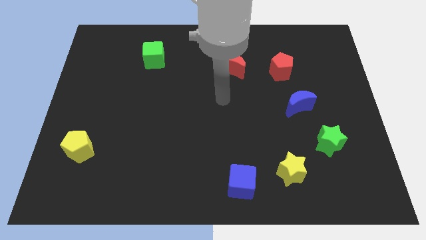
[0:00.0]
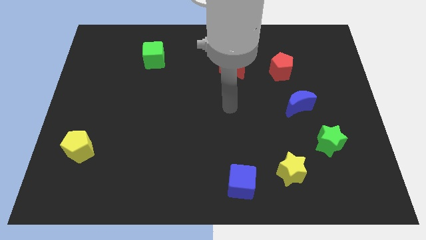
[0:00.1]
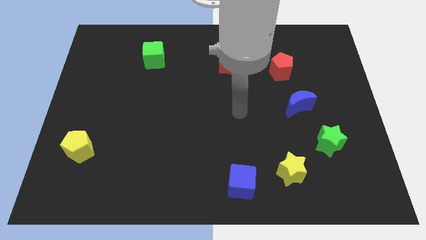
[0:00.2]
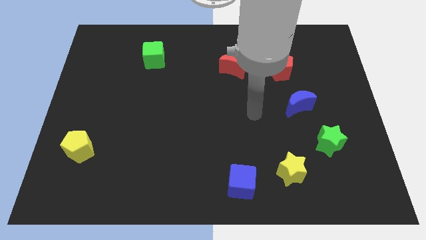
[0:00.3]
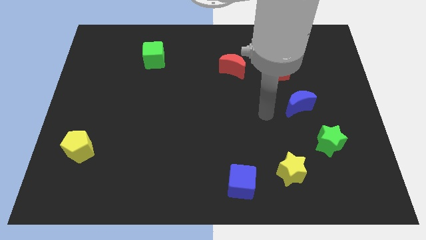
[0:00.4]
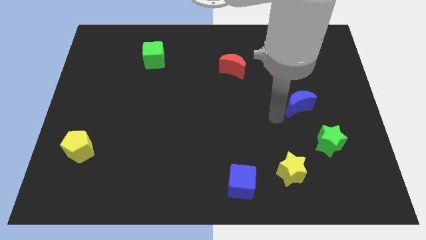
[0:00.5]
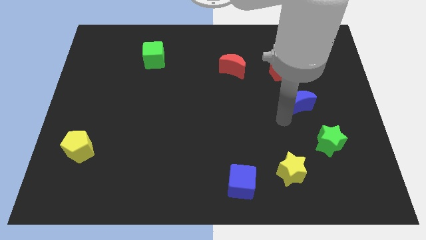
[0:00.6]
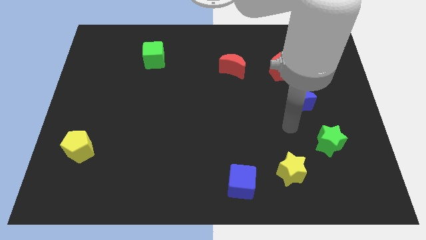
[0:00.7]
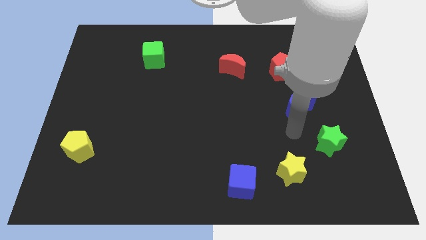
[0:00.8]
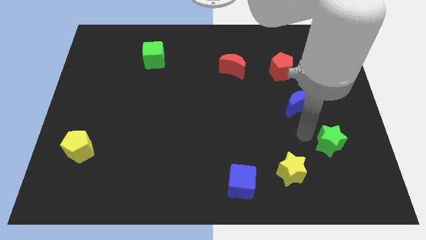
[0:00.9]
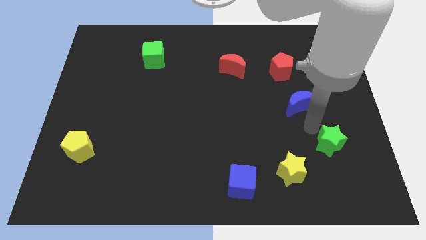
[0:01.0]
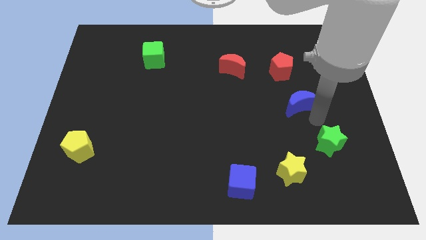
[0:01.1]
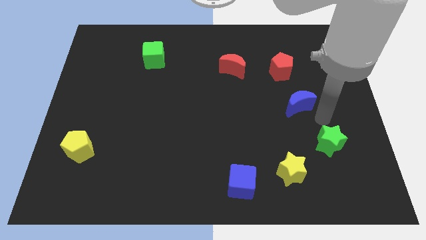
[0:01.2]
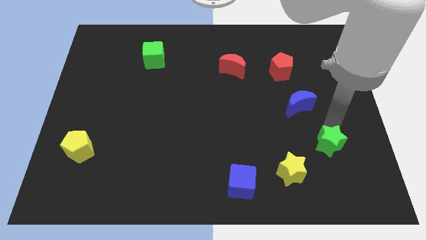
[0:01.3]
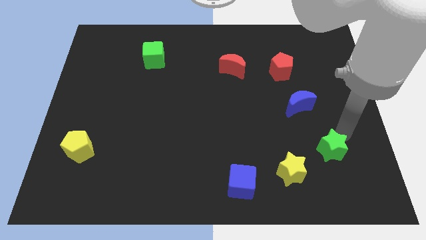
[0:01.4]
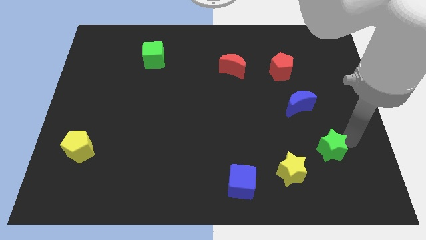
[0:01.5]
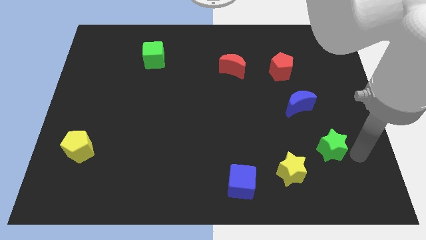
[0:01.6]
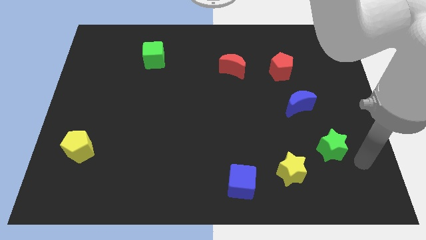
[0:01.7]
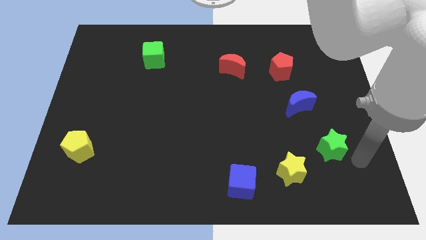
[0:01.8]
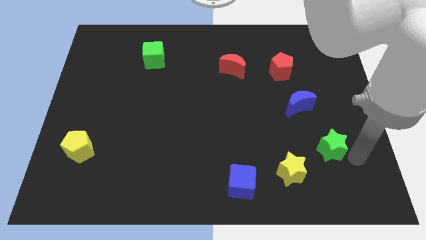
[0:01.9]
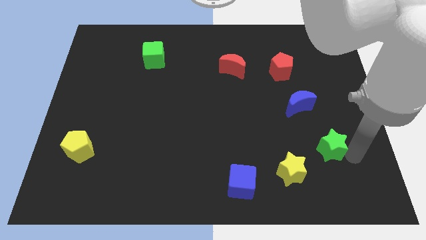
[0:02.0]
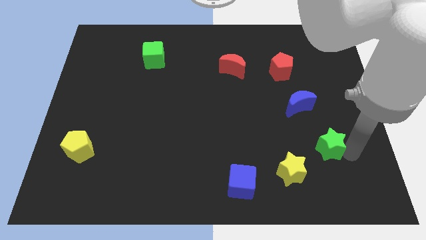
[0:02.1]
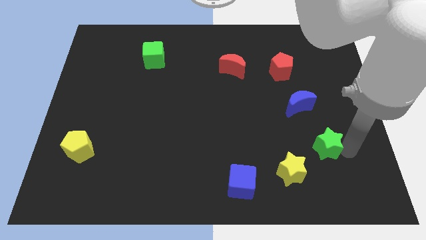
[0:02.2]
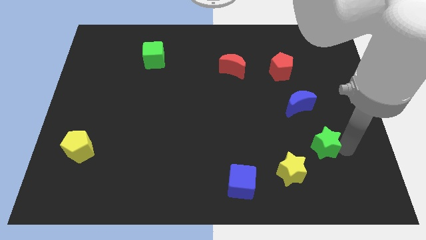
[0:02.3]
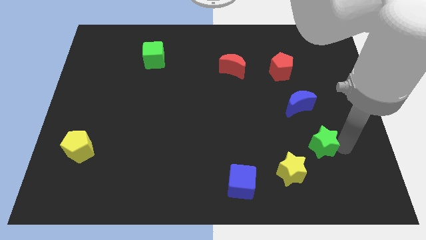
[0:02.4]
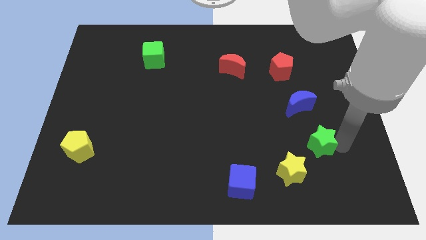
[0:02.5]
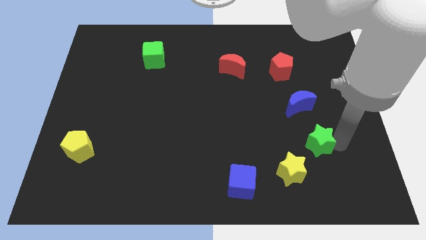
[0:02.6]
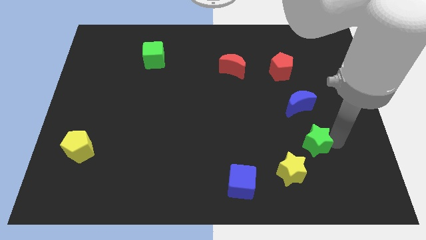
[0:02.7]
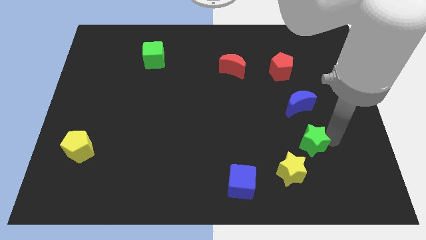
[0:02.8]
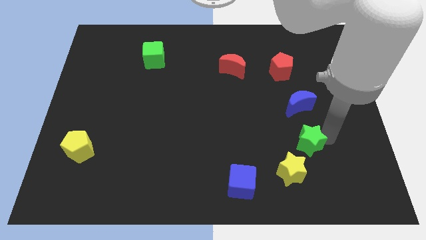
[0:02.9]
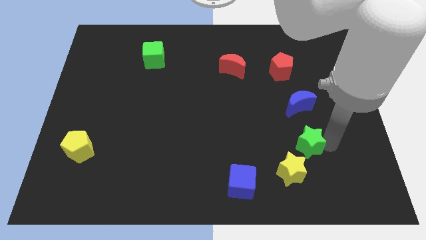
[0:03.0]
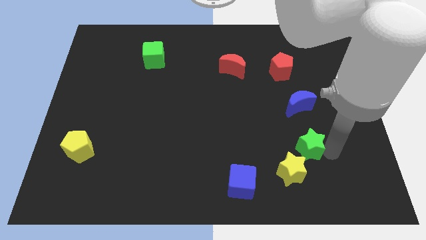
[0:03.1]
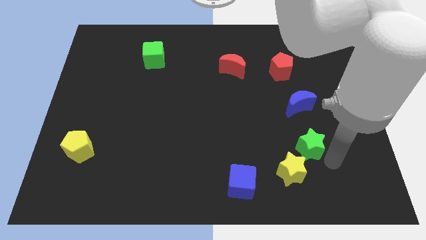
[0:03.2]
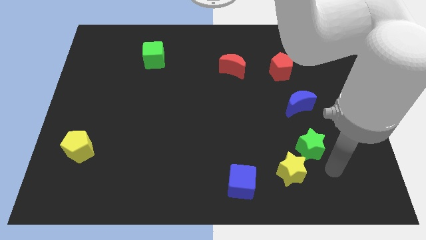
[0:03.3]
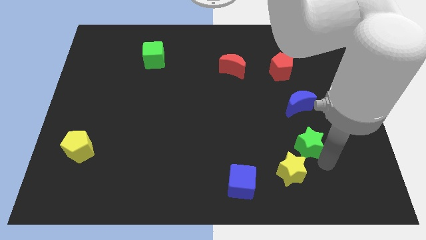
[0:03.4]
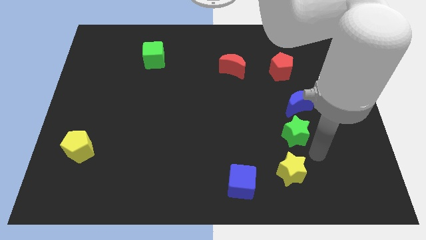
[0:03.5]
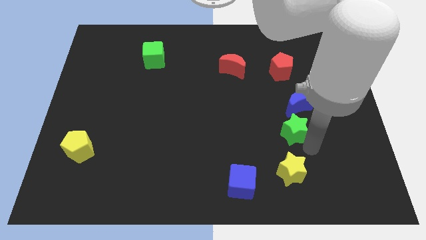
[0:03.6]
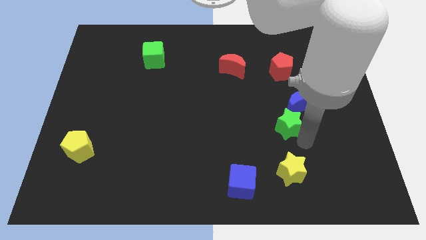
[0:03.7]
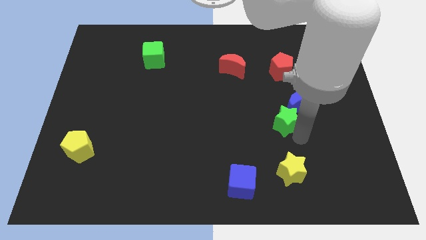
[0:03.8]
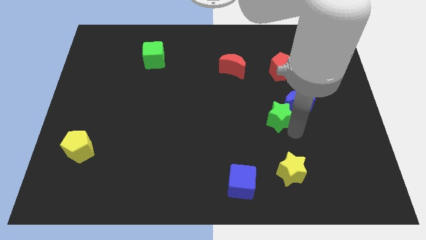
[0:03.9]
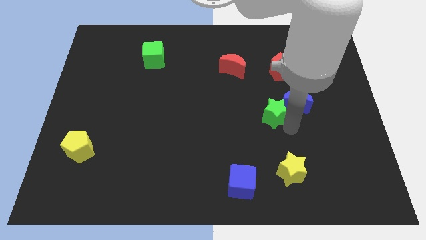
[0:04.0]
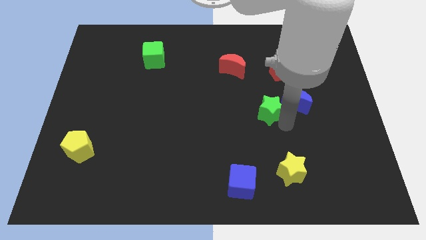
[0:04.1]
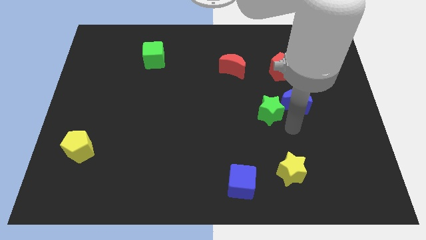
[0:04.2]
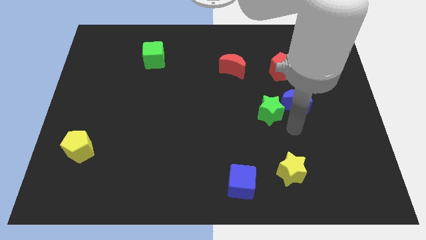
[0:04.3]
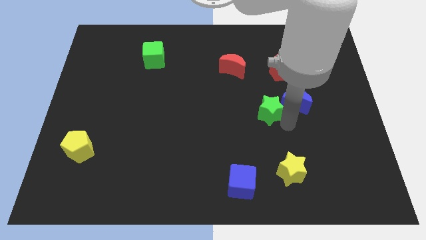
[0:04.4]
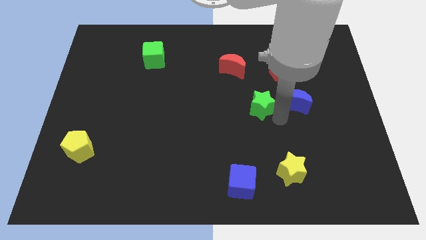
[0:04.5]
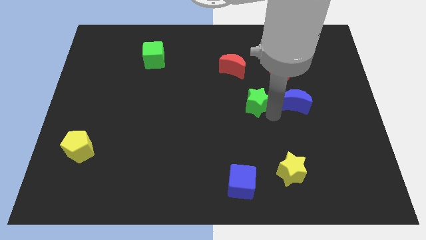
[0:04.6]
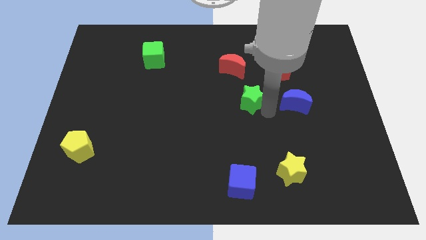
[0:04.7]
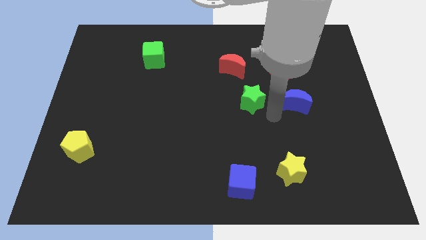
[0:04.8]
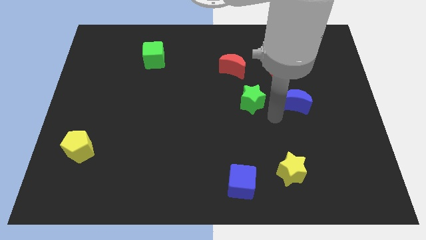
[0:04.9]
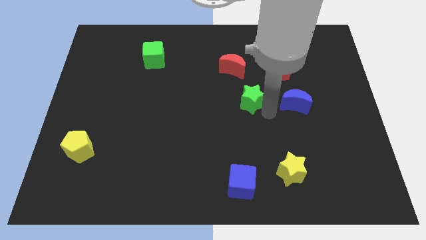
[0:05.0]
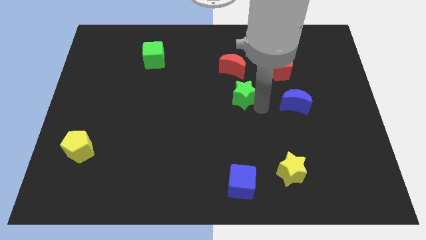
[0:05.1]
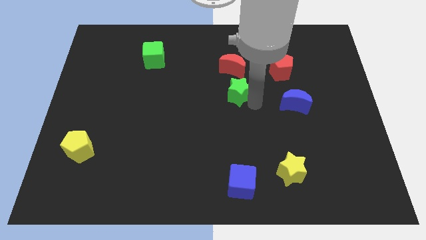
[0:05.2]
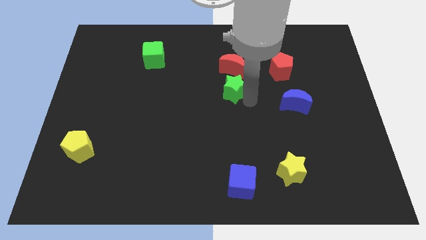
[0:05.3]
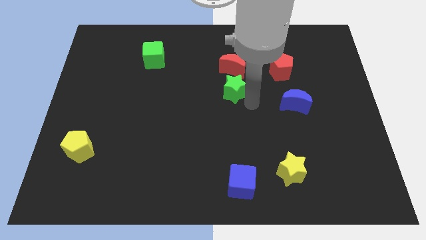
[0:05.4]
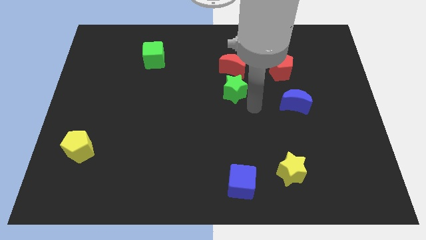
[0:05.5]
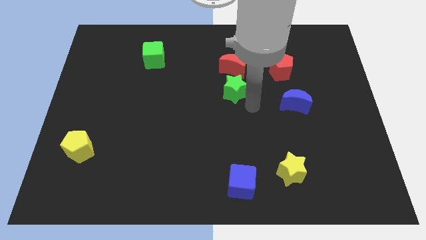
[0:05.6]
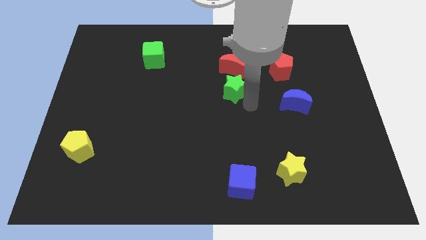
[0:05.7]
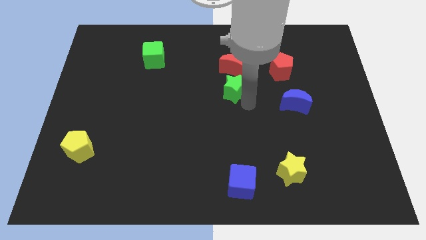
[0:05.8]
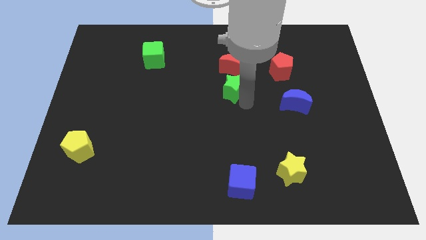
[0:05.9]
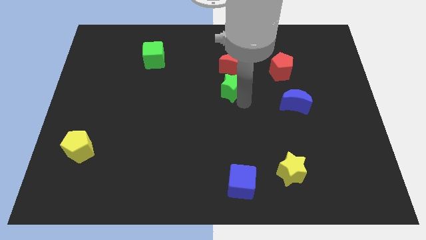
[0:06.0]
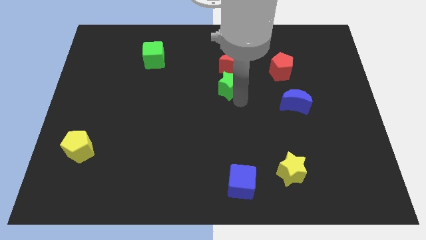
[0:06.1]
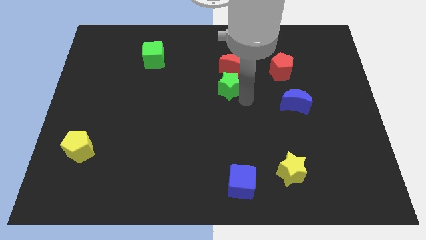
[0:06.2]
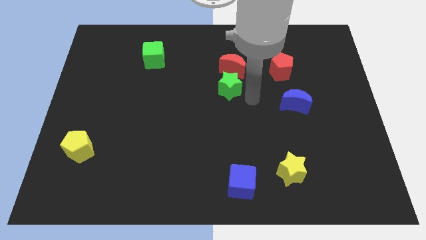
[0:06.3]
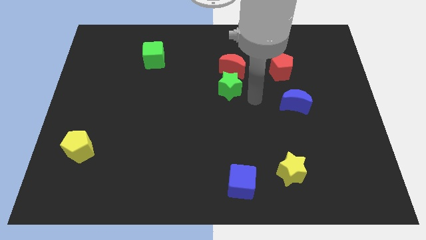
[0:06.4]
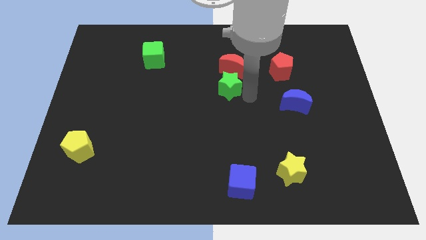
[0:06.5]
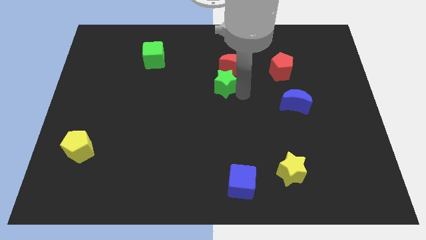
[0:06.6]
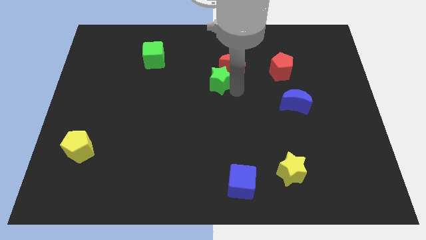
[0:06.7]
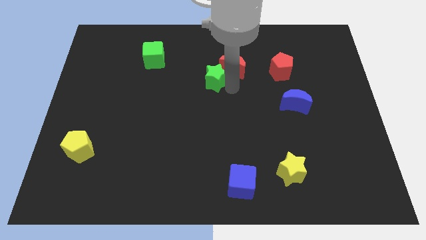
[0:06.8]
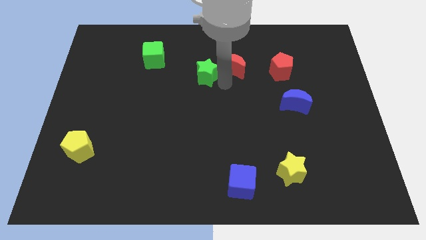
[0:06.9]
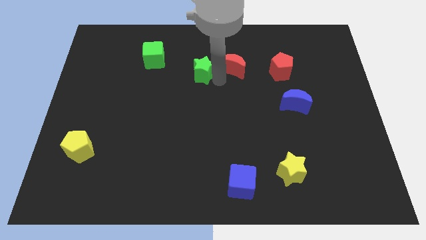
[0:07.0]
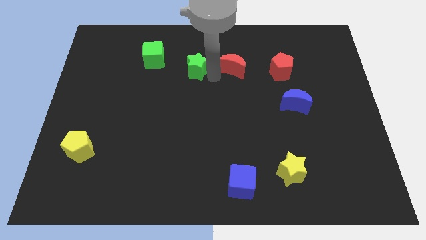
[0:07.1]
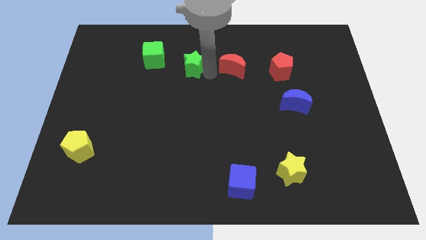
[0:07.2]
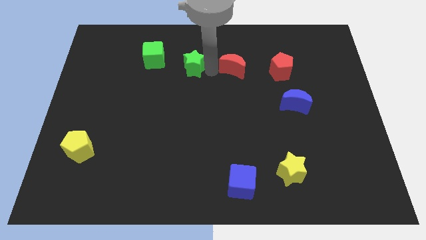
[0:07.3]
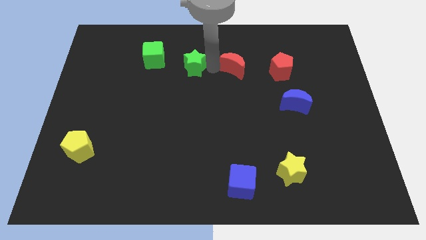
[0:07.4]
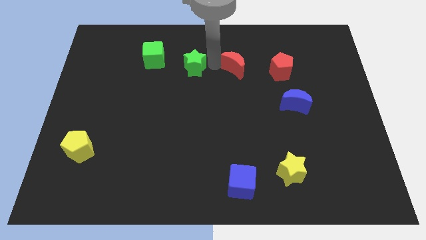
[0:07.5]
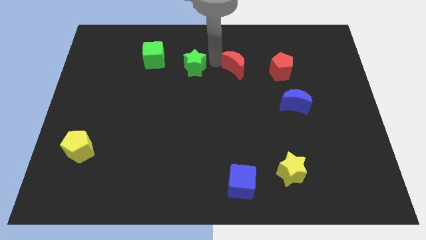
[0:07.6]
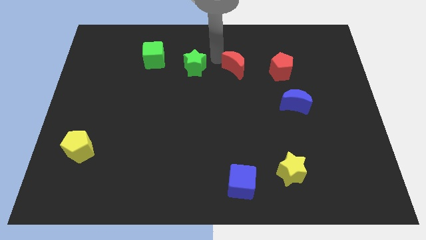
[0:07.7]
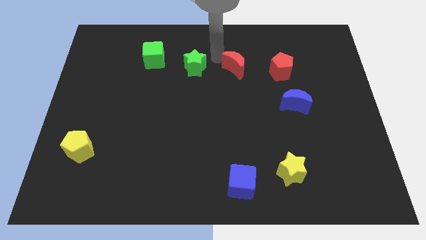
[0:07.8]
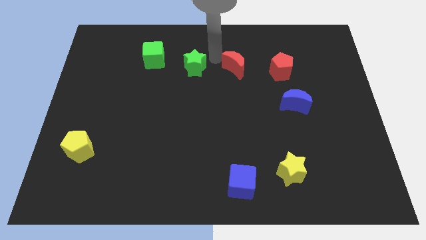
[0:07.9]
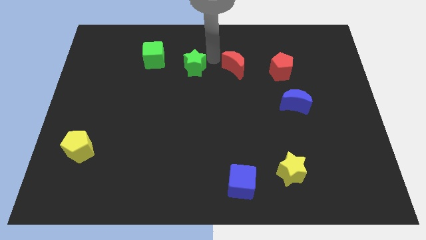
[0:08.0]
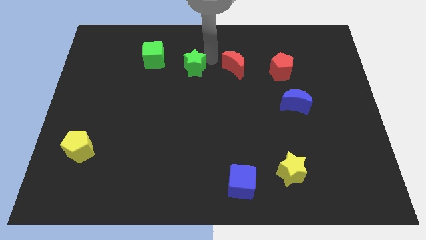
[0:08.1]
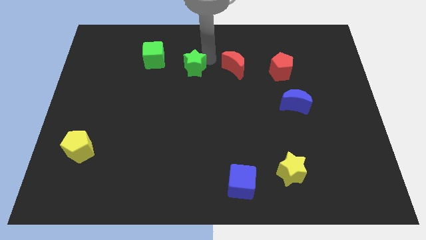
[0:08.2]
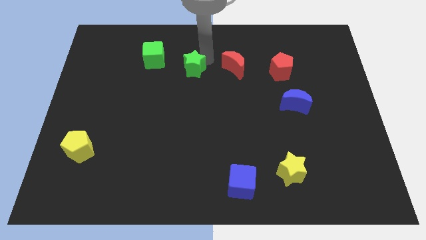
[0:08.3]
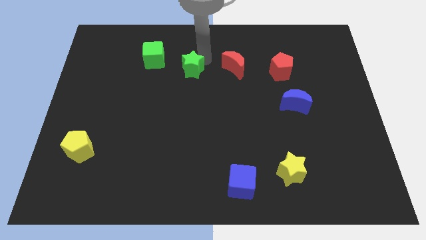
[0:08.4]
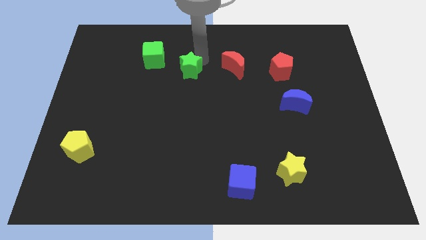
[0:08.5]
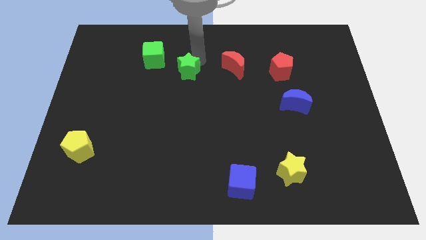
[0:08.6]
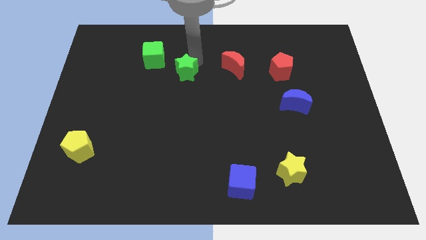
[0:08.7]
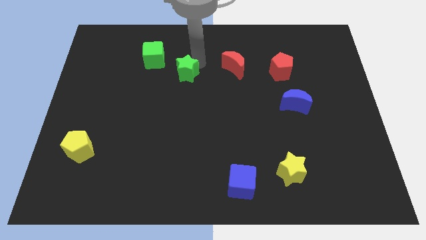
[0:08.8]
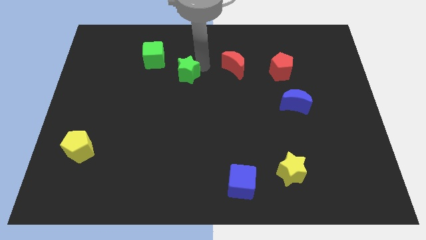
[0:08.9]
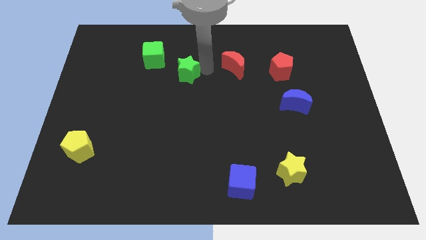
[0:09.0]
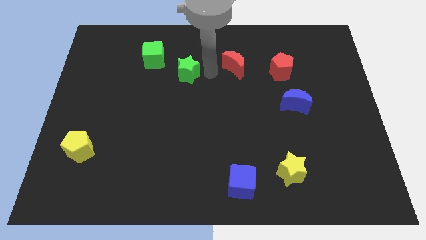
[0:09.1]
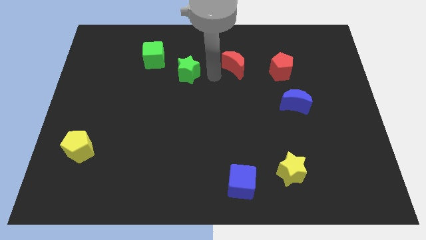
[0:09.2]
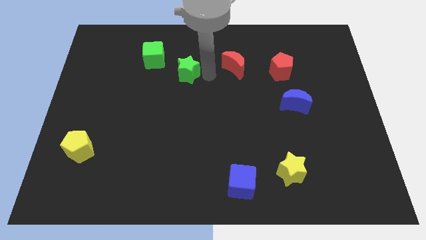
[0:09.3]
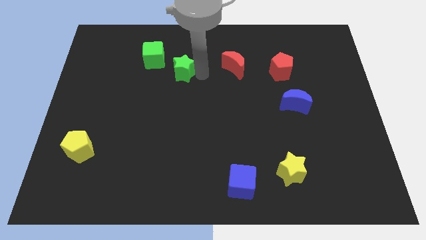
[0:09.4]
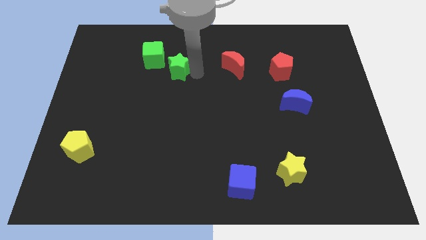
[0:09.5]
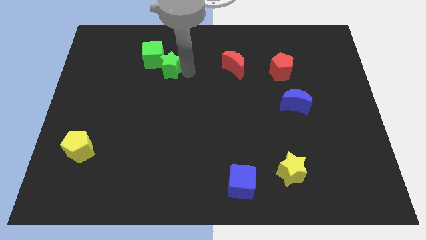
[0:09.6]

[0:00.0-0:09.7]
push the green star next to the green cube
